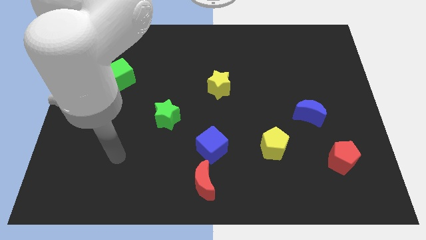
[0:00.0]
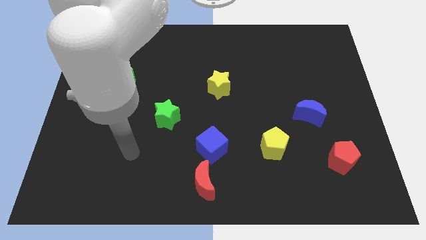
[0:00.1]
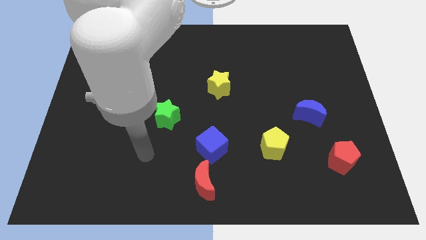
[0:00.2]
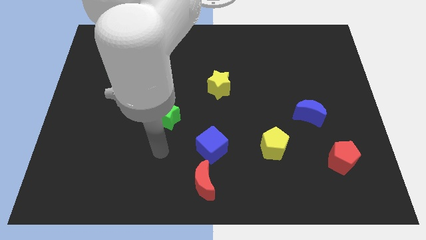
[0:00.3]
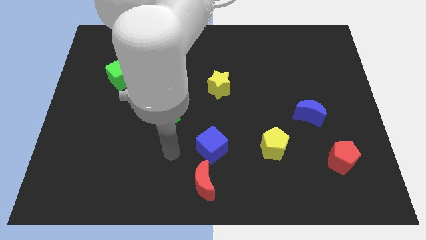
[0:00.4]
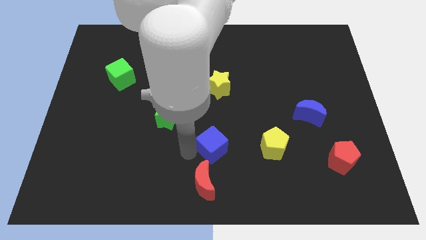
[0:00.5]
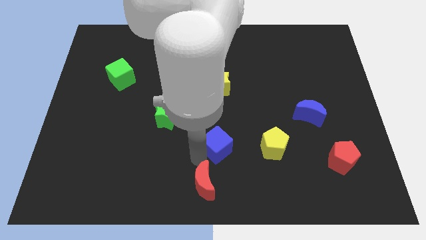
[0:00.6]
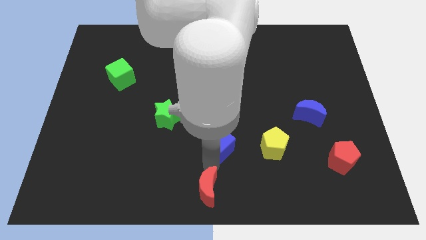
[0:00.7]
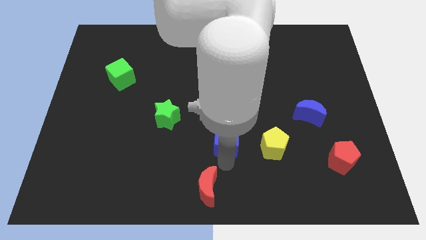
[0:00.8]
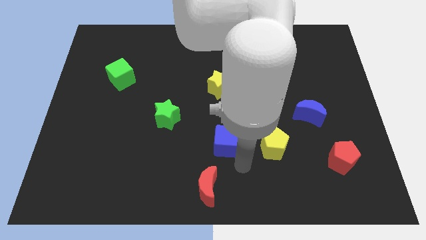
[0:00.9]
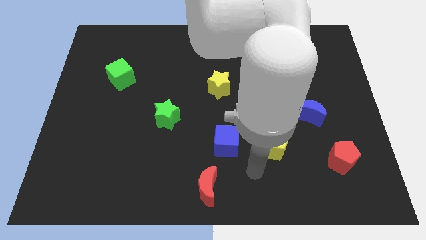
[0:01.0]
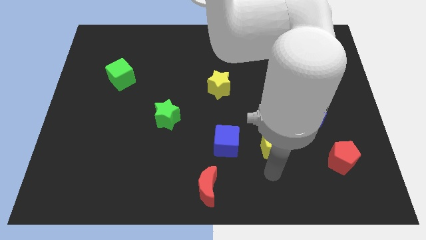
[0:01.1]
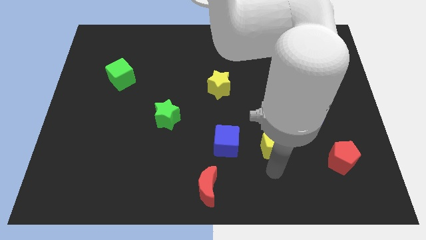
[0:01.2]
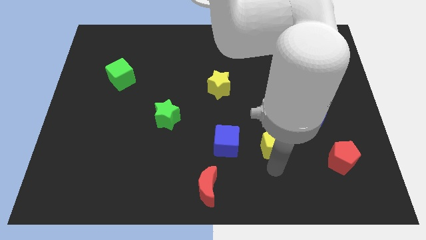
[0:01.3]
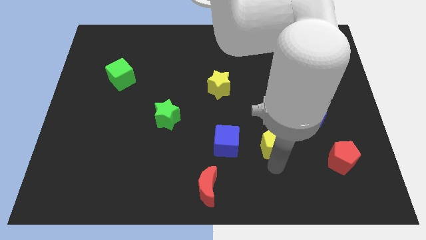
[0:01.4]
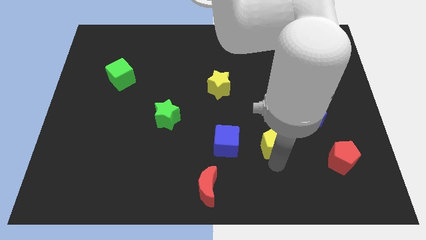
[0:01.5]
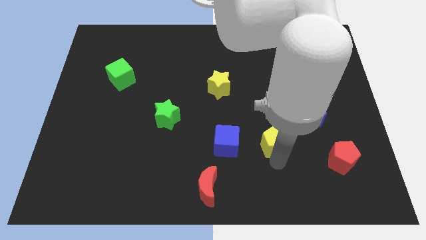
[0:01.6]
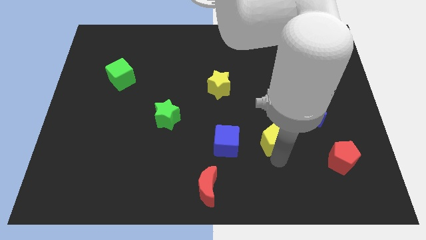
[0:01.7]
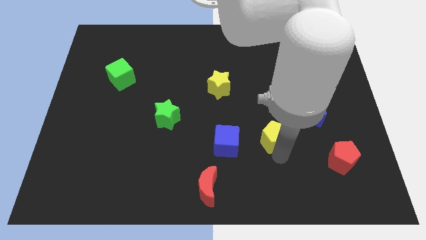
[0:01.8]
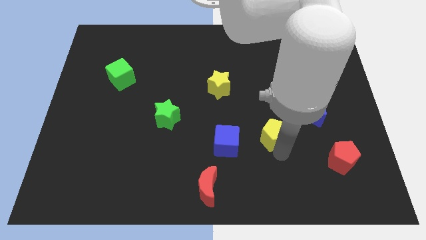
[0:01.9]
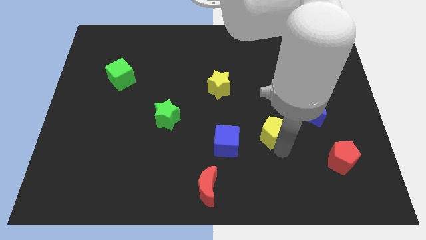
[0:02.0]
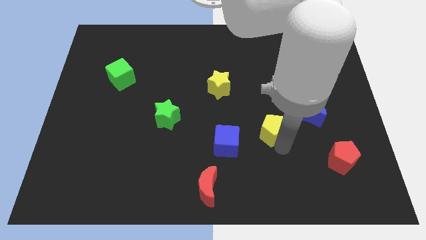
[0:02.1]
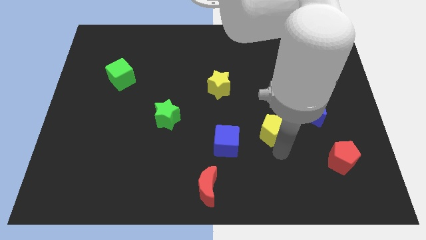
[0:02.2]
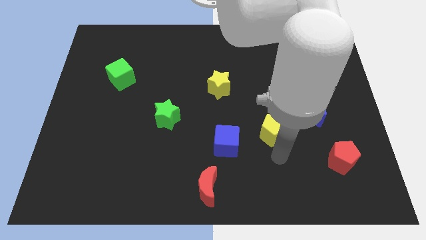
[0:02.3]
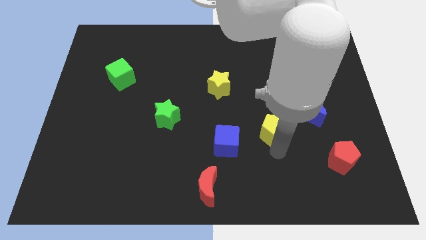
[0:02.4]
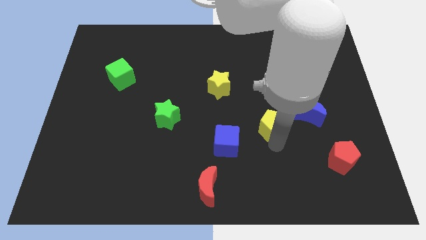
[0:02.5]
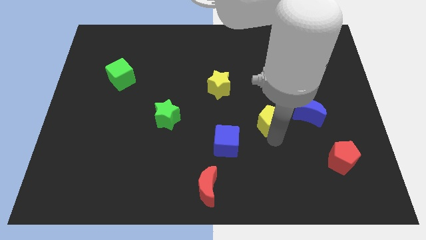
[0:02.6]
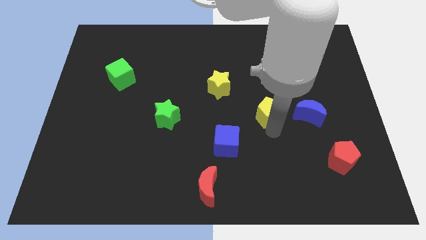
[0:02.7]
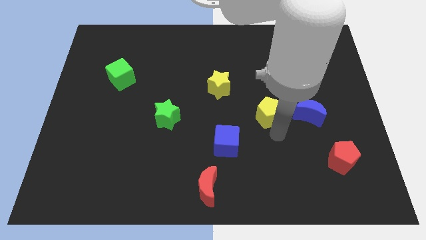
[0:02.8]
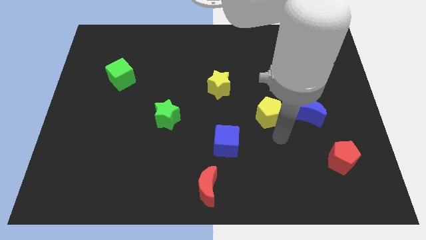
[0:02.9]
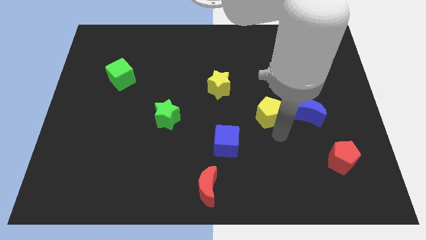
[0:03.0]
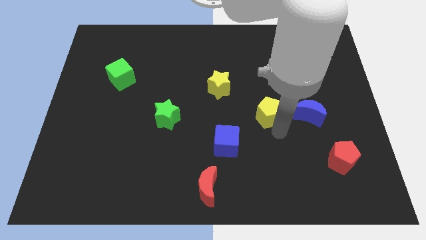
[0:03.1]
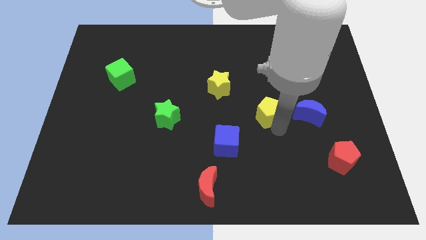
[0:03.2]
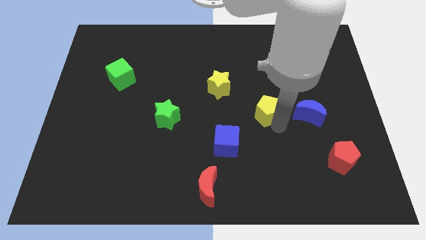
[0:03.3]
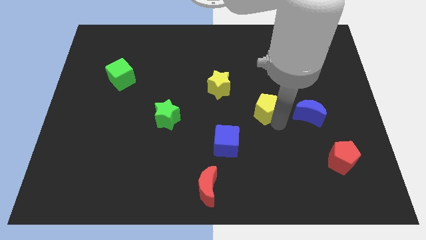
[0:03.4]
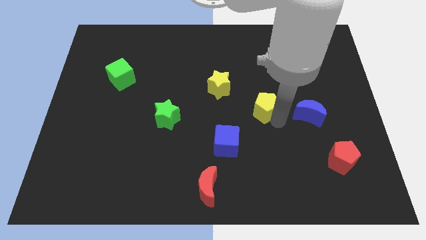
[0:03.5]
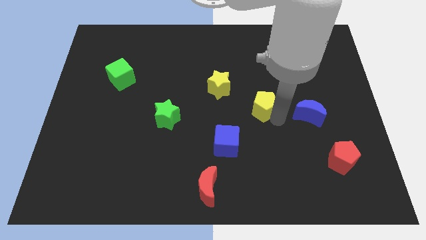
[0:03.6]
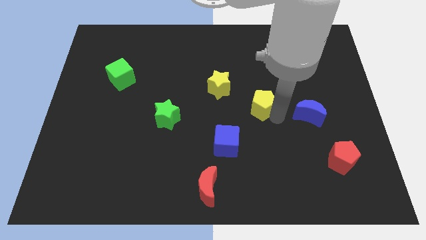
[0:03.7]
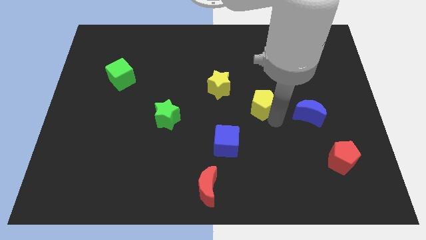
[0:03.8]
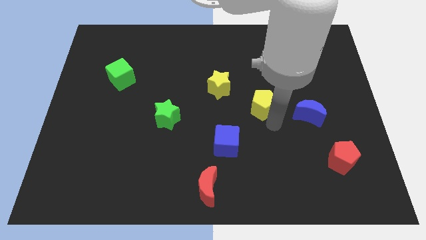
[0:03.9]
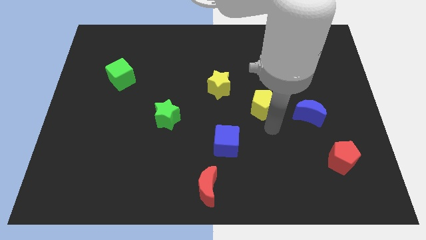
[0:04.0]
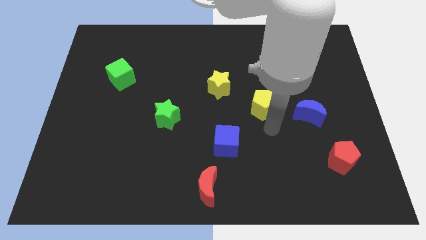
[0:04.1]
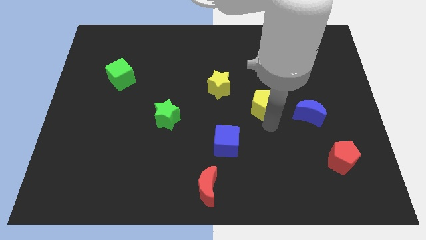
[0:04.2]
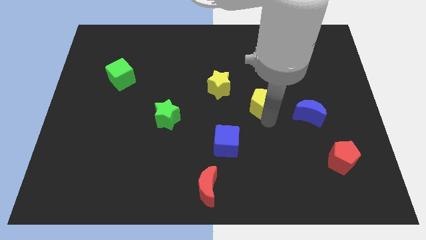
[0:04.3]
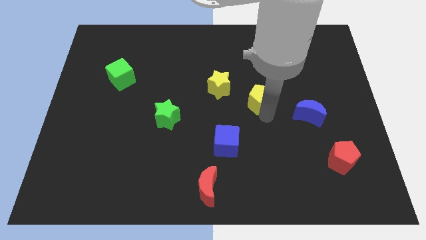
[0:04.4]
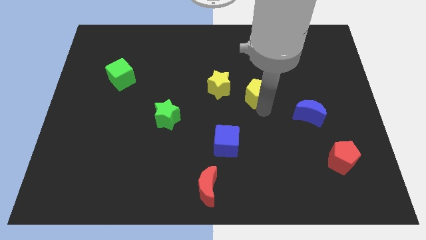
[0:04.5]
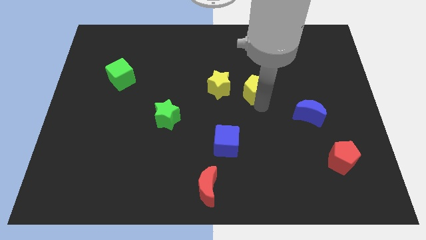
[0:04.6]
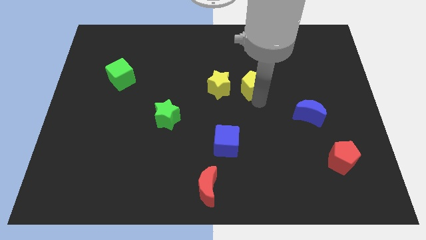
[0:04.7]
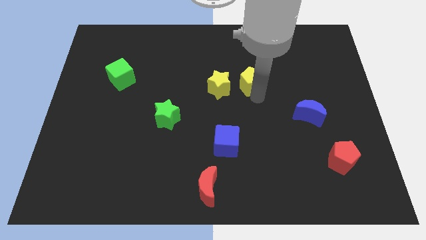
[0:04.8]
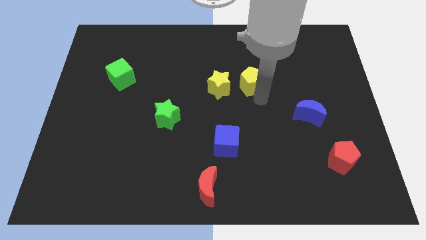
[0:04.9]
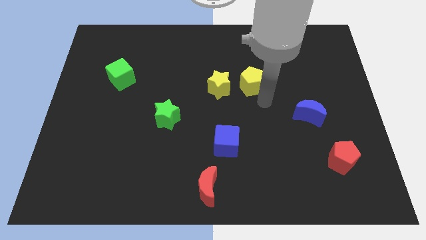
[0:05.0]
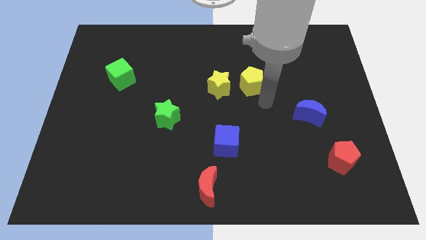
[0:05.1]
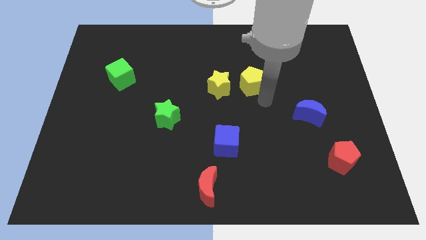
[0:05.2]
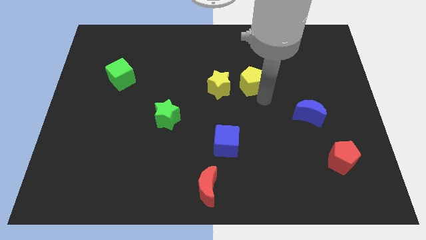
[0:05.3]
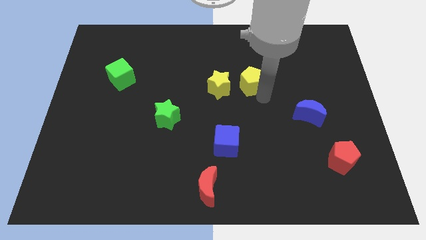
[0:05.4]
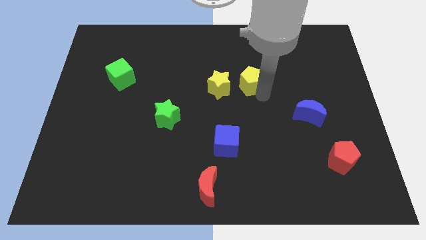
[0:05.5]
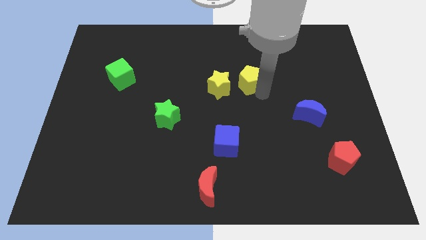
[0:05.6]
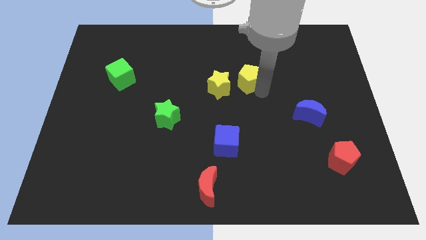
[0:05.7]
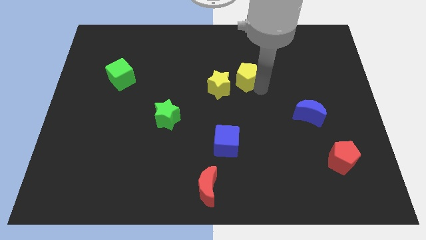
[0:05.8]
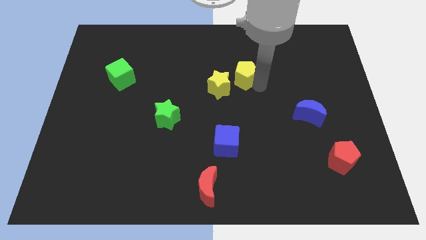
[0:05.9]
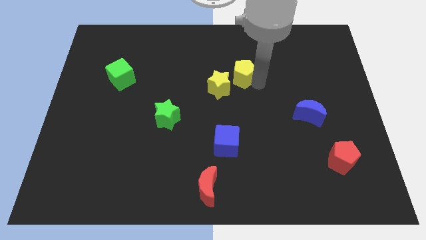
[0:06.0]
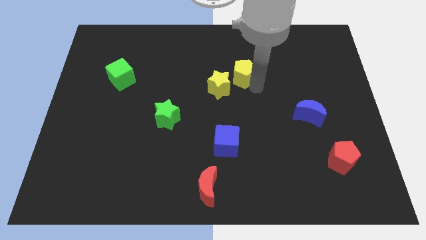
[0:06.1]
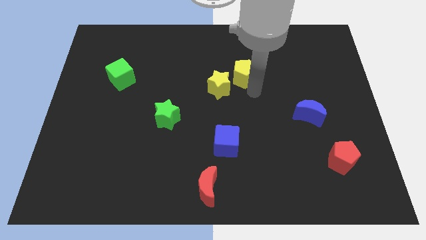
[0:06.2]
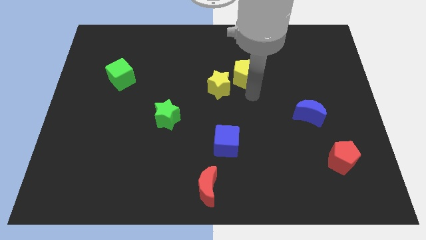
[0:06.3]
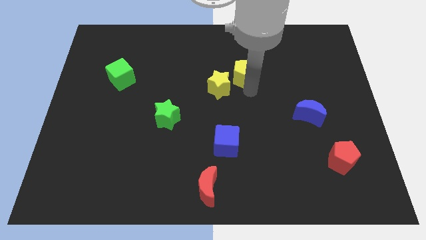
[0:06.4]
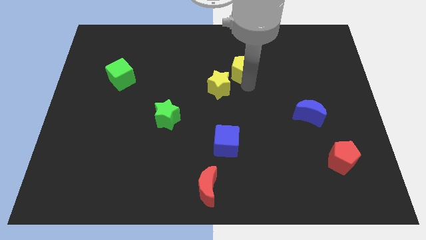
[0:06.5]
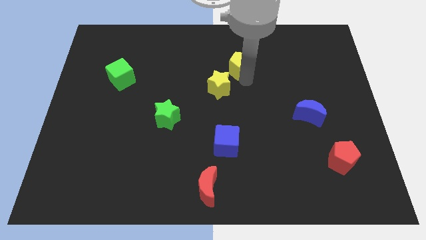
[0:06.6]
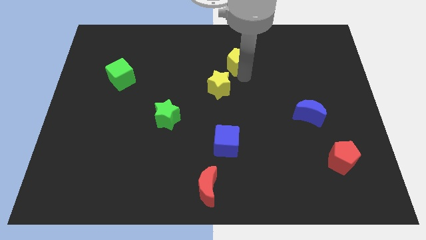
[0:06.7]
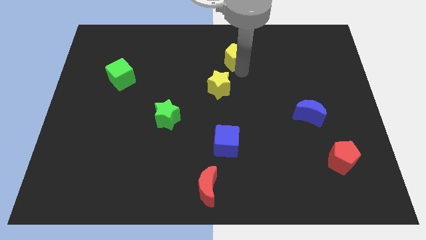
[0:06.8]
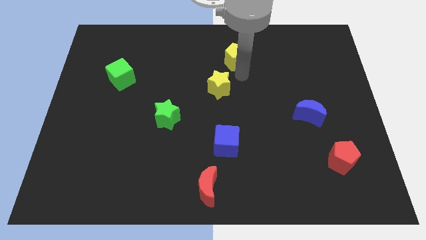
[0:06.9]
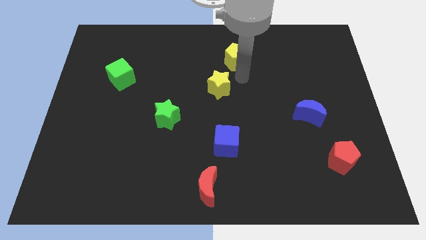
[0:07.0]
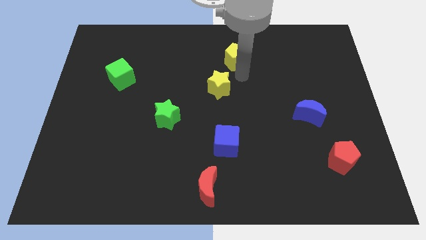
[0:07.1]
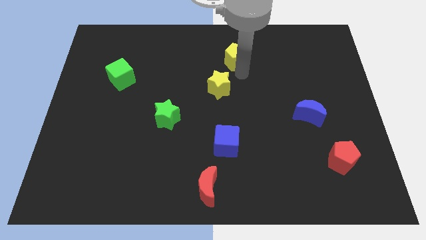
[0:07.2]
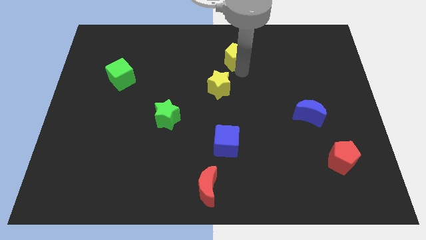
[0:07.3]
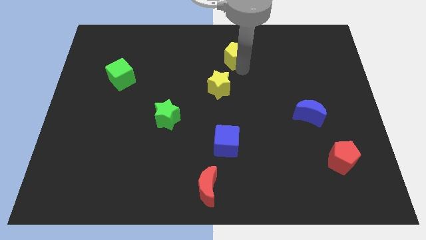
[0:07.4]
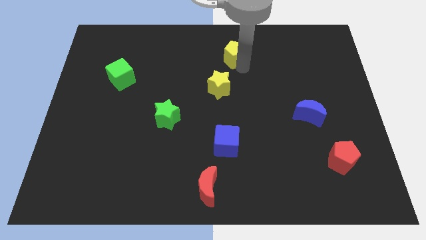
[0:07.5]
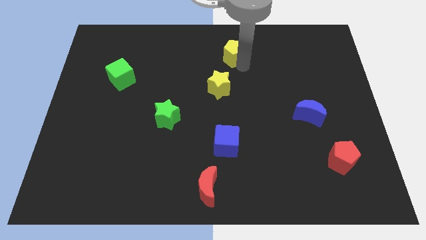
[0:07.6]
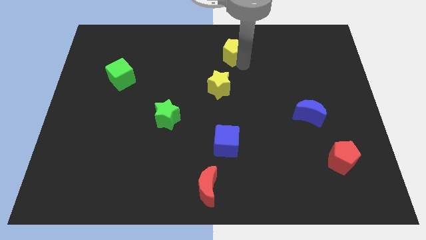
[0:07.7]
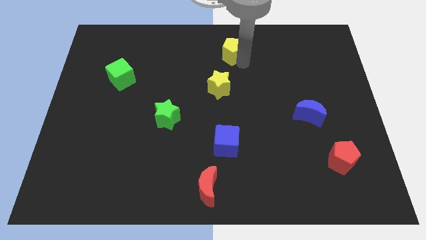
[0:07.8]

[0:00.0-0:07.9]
put the yellow pentagon to the top side
